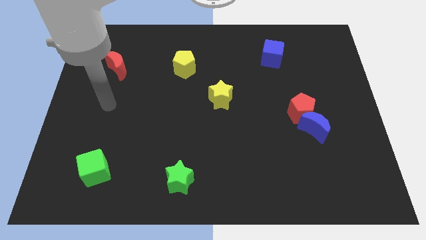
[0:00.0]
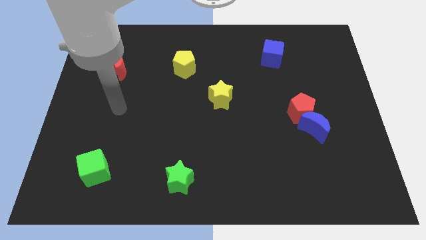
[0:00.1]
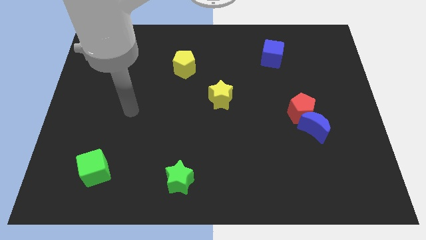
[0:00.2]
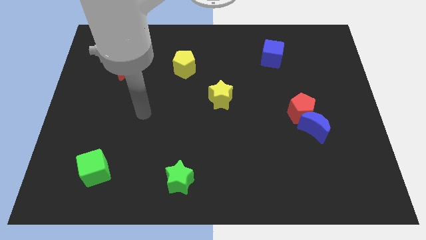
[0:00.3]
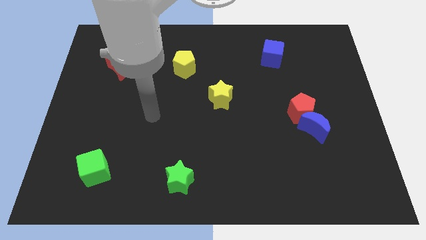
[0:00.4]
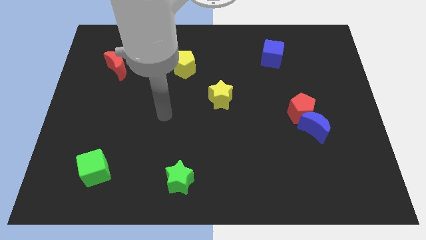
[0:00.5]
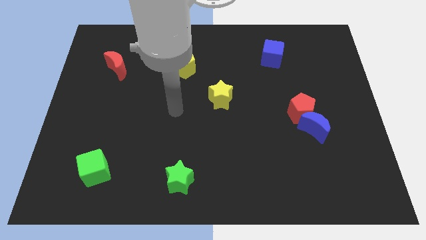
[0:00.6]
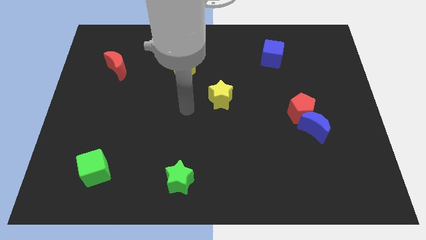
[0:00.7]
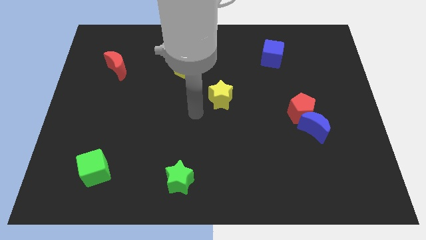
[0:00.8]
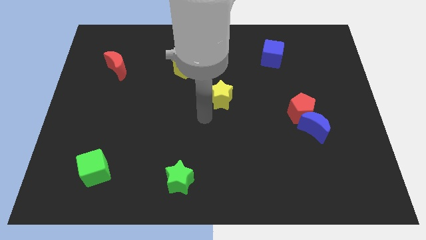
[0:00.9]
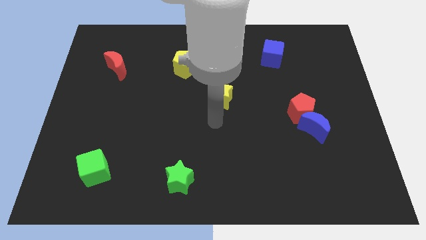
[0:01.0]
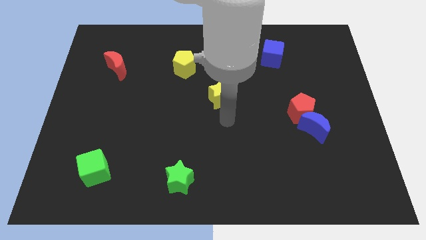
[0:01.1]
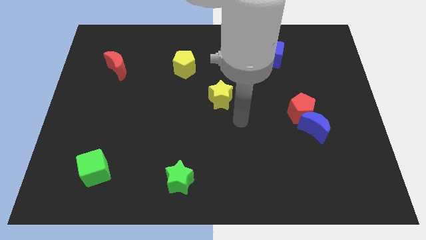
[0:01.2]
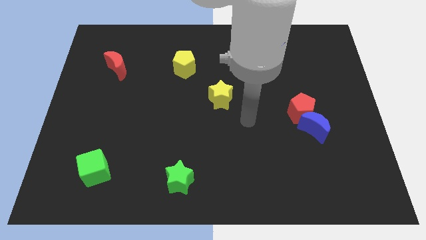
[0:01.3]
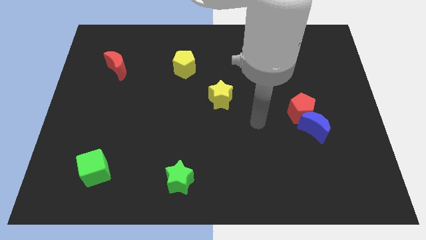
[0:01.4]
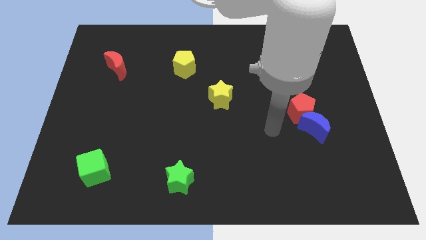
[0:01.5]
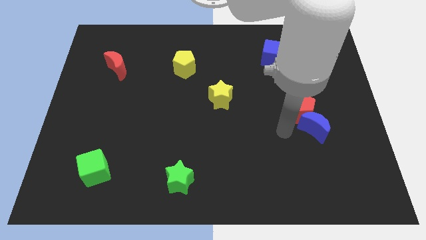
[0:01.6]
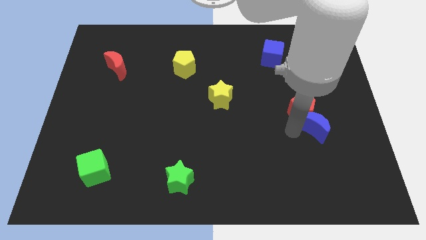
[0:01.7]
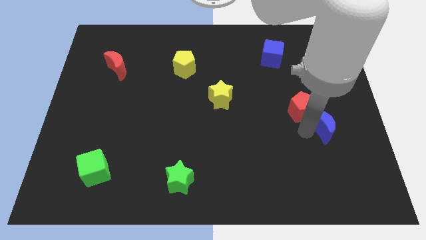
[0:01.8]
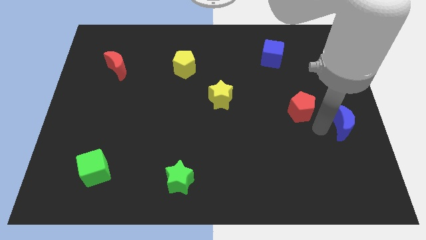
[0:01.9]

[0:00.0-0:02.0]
separate the red pentagon from the blue moon

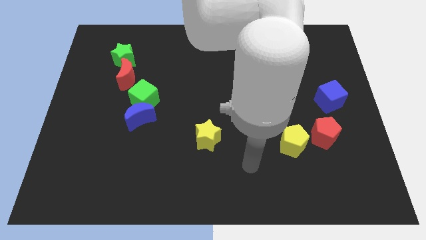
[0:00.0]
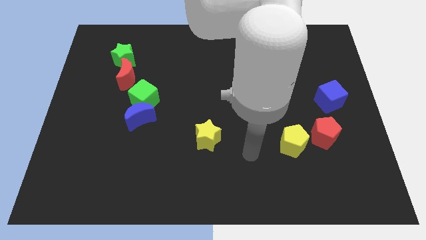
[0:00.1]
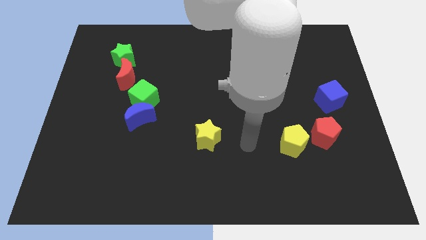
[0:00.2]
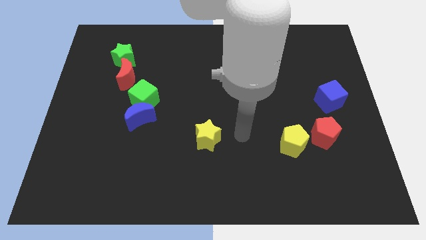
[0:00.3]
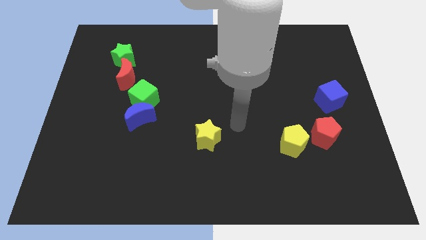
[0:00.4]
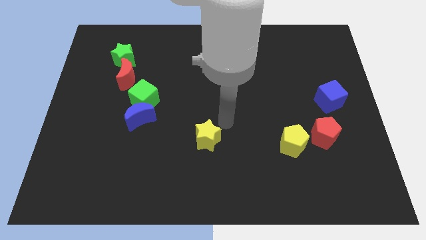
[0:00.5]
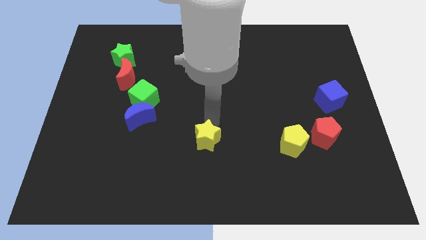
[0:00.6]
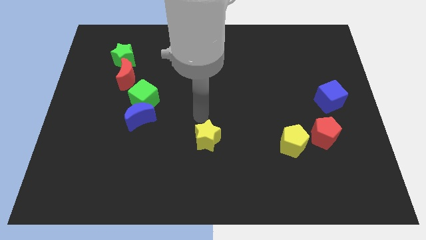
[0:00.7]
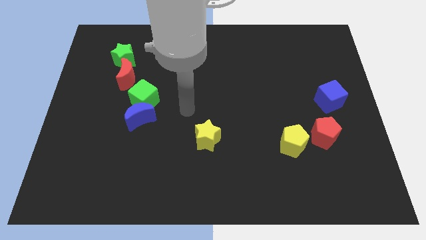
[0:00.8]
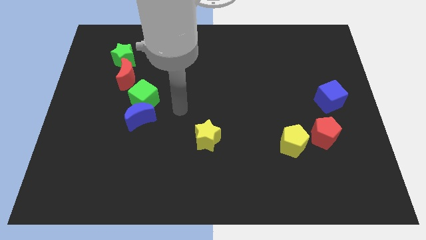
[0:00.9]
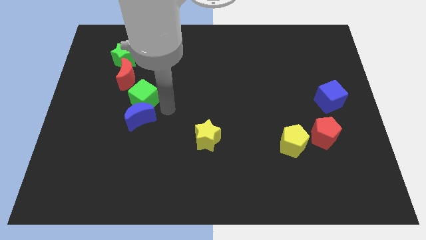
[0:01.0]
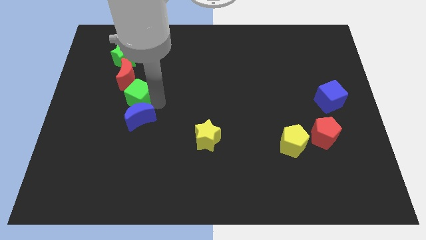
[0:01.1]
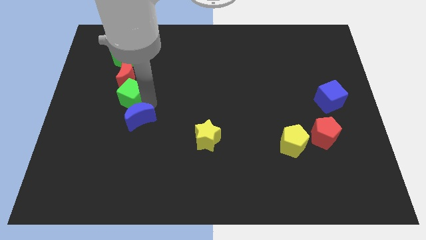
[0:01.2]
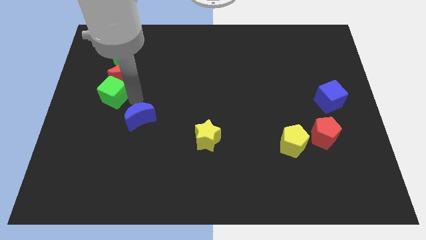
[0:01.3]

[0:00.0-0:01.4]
move the blue moon away from the green cube

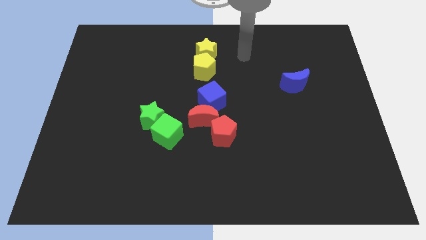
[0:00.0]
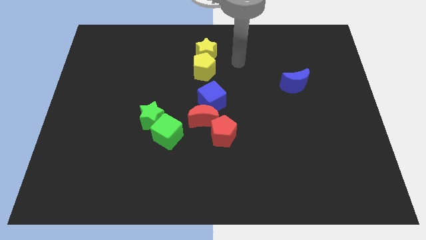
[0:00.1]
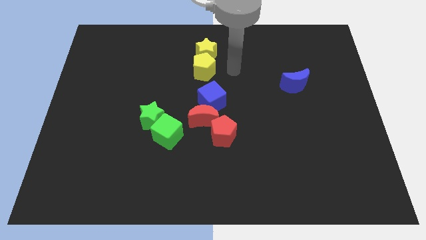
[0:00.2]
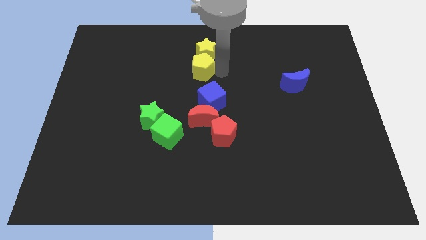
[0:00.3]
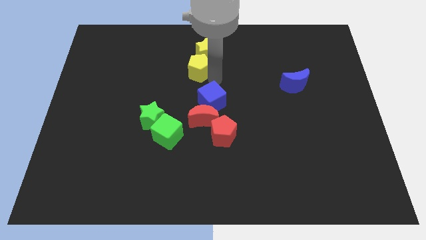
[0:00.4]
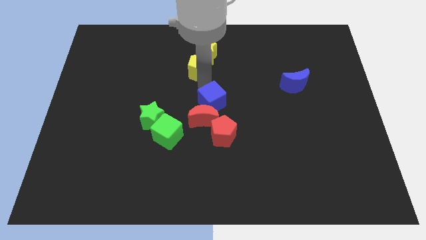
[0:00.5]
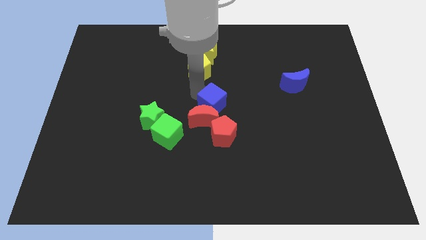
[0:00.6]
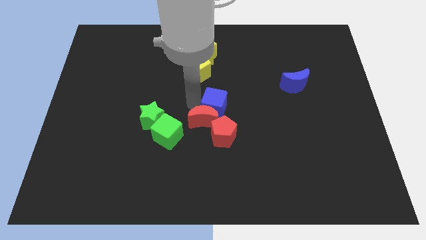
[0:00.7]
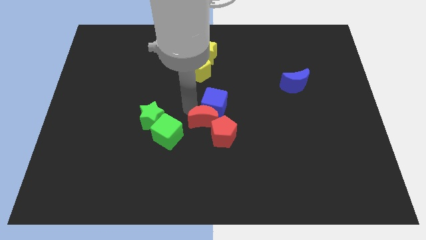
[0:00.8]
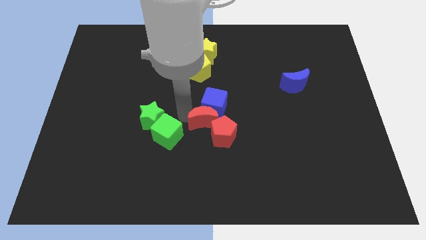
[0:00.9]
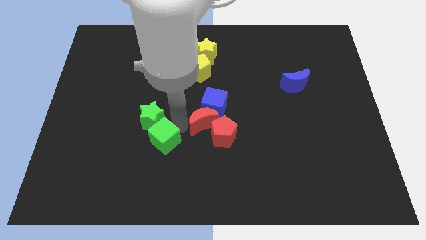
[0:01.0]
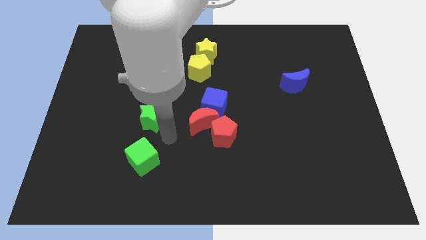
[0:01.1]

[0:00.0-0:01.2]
pull the green star apart from the green cube

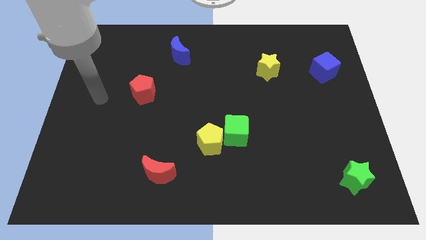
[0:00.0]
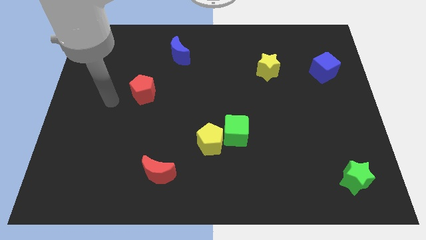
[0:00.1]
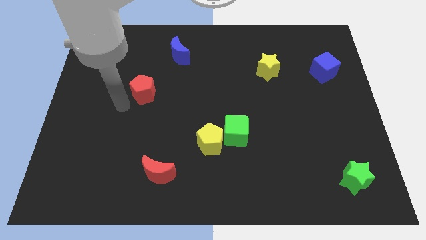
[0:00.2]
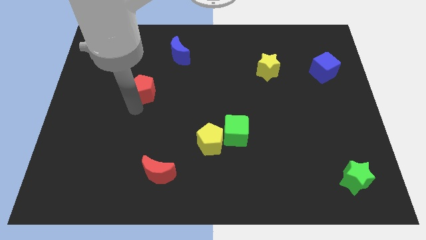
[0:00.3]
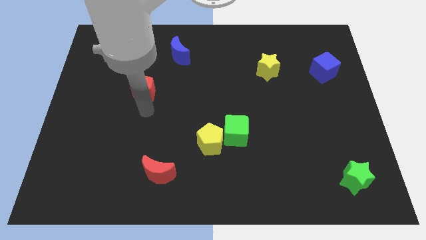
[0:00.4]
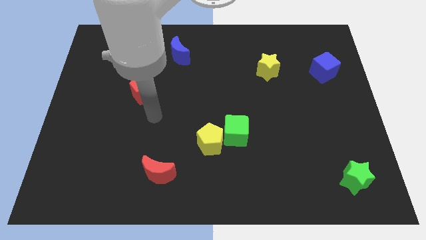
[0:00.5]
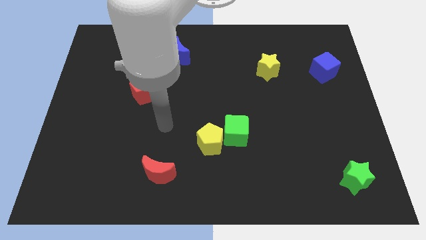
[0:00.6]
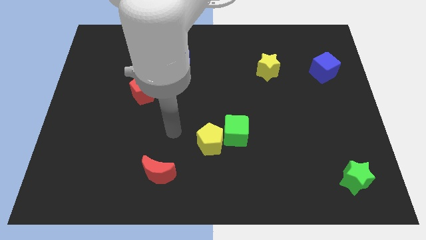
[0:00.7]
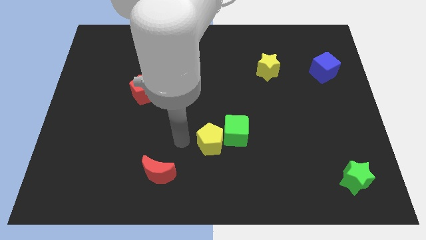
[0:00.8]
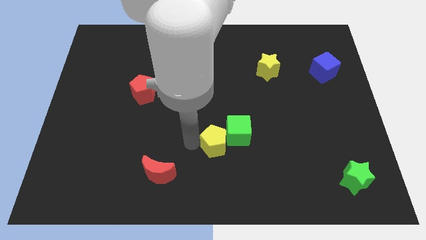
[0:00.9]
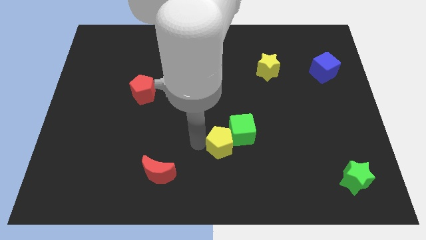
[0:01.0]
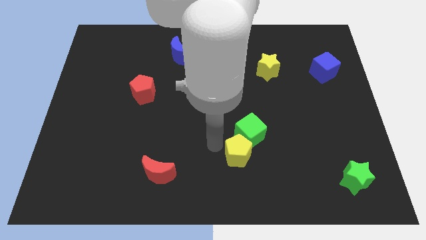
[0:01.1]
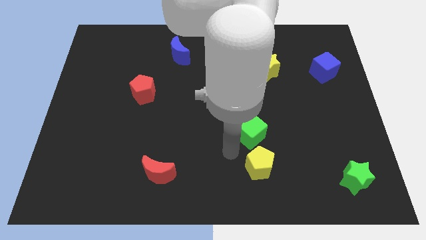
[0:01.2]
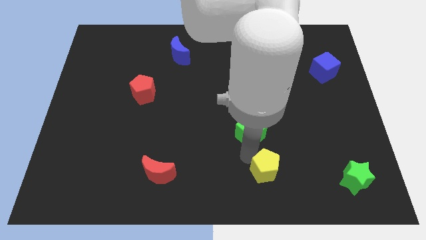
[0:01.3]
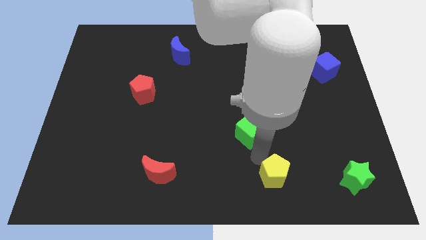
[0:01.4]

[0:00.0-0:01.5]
pull the green cube apart from the yellow pentagon

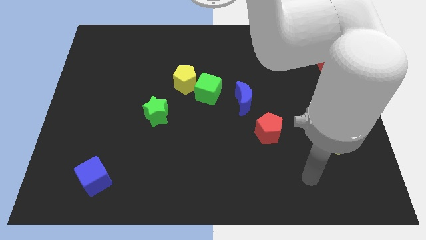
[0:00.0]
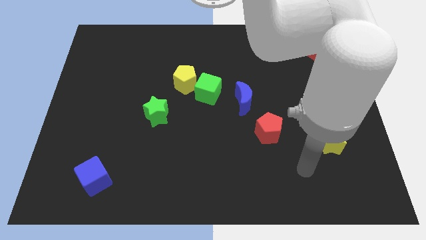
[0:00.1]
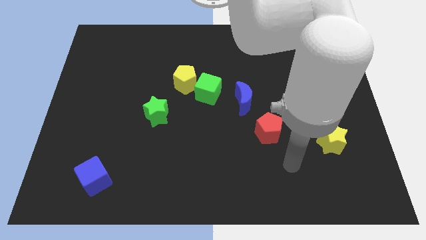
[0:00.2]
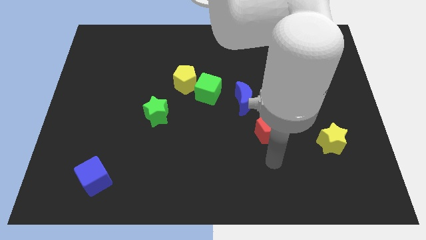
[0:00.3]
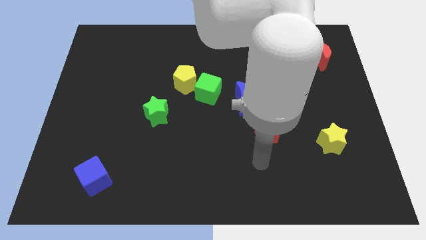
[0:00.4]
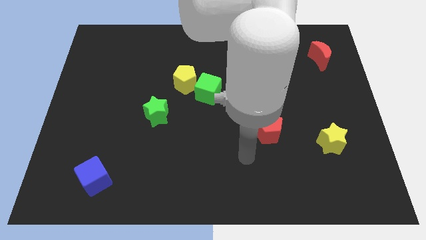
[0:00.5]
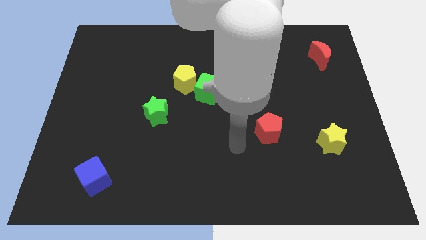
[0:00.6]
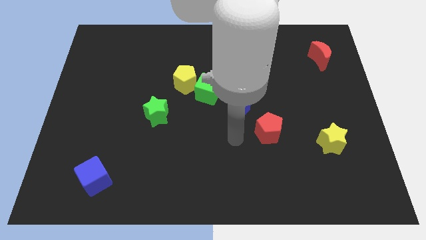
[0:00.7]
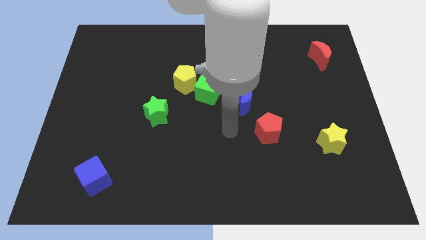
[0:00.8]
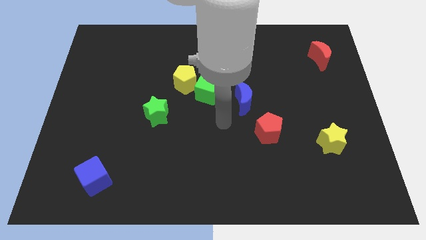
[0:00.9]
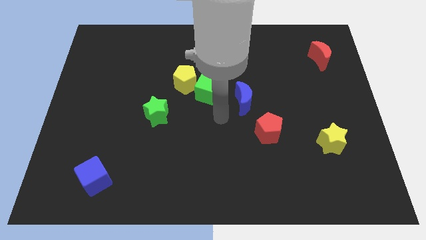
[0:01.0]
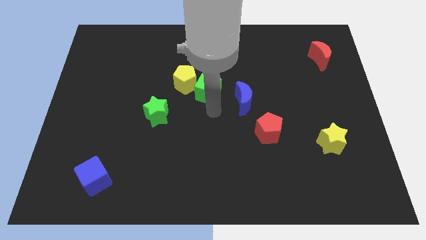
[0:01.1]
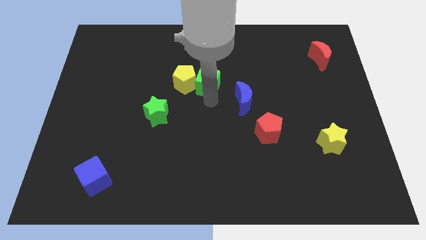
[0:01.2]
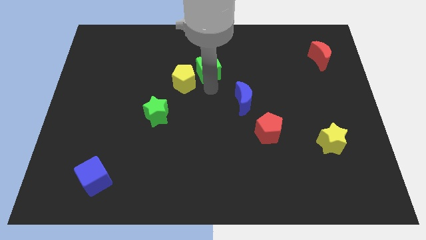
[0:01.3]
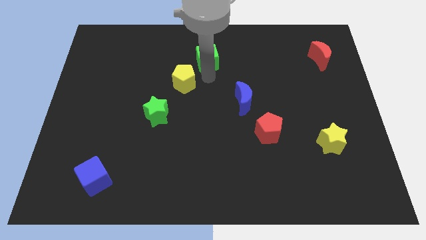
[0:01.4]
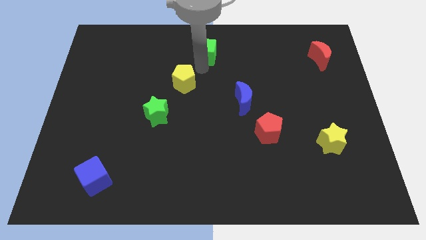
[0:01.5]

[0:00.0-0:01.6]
pull the yellow pentagon apart from the green cube

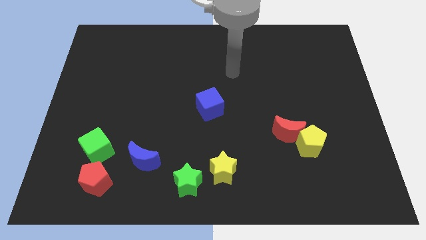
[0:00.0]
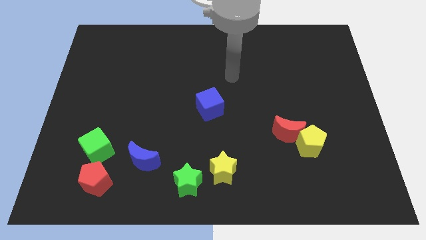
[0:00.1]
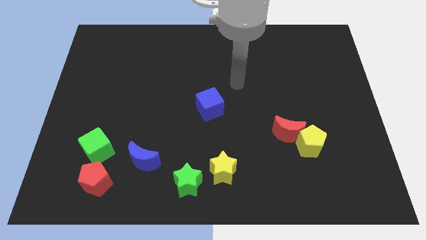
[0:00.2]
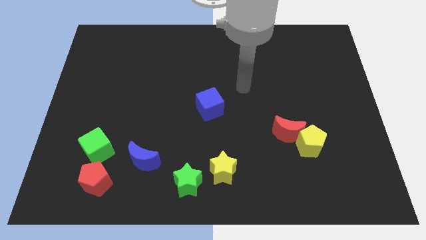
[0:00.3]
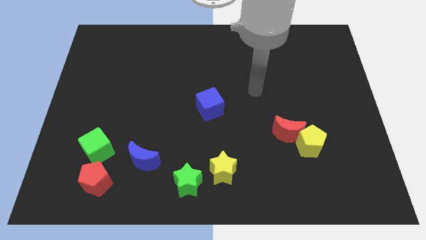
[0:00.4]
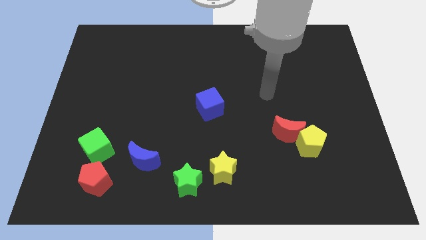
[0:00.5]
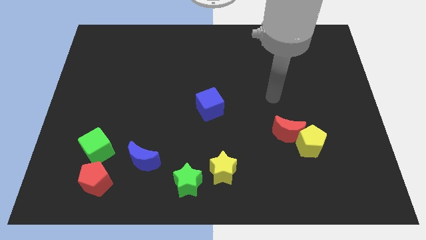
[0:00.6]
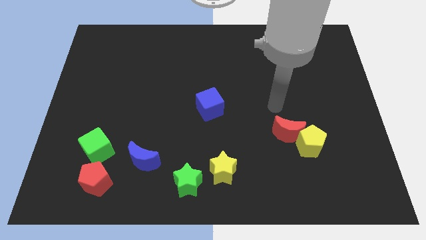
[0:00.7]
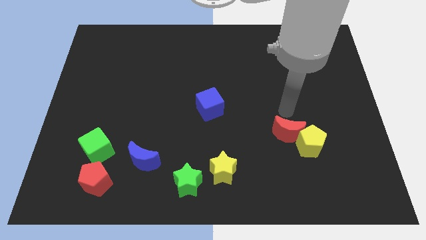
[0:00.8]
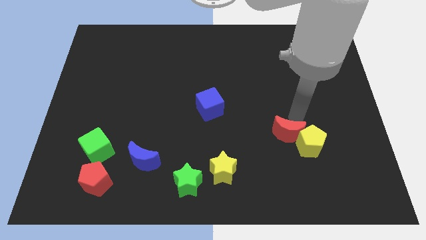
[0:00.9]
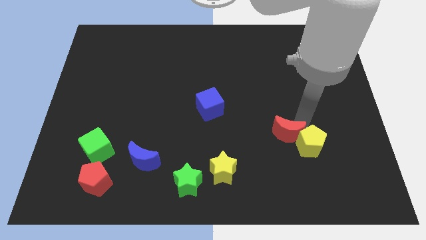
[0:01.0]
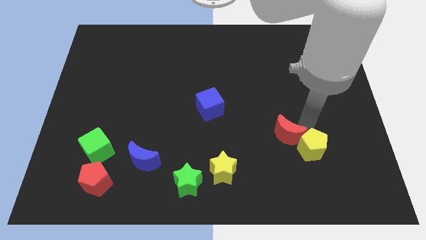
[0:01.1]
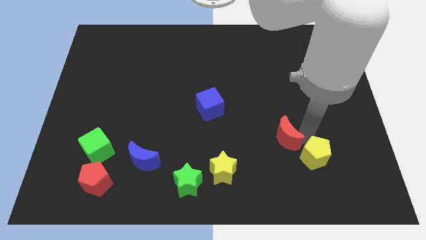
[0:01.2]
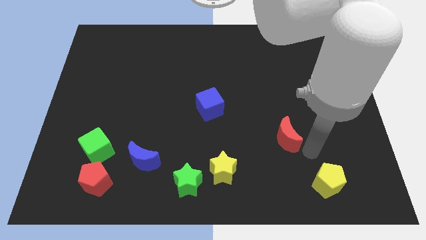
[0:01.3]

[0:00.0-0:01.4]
move the red moon away from the yellow pentagon

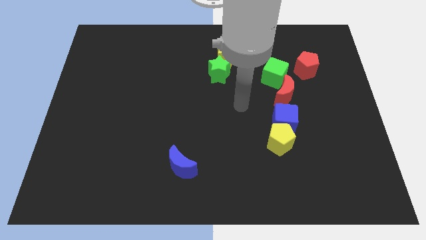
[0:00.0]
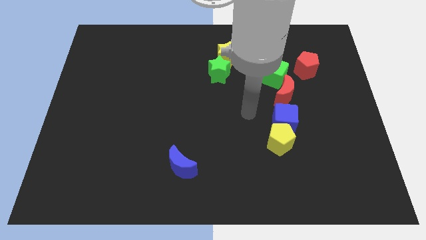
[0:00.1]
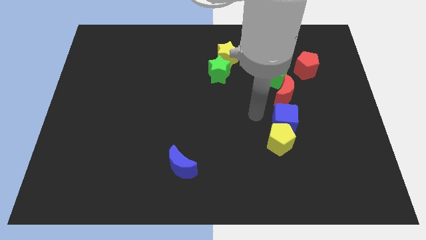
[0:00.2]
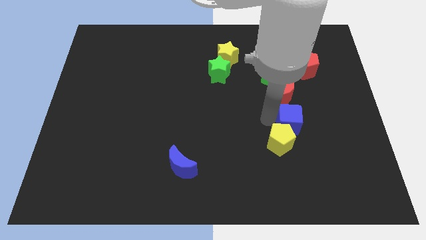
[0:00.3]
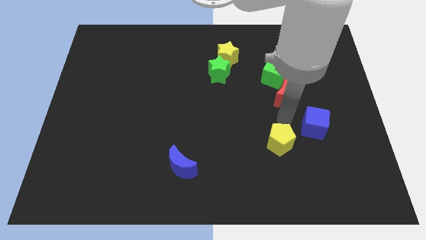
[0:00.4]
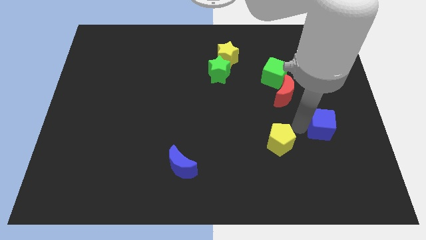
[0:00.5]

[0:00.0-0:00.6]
move the yellow pentagon away from the blue cube
